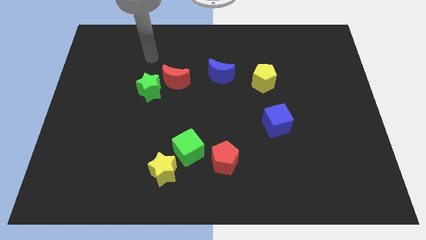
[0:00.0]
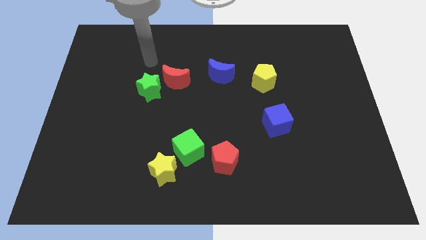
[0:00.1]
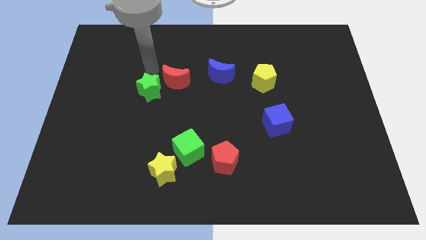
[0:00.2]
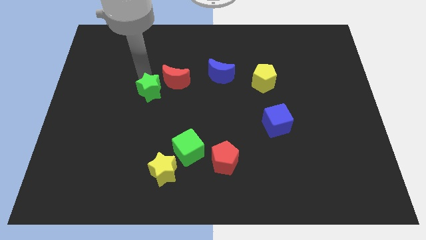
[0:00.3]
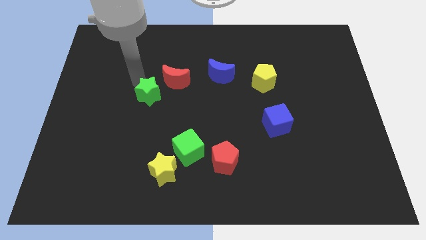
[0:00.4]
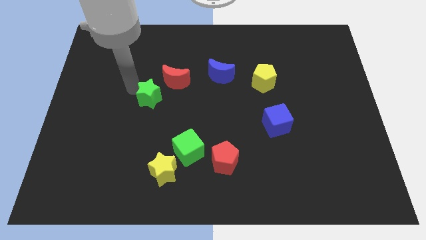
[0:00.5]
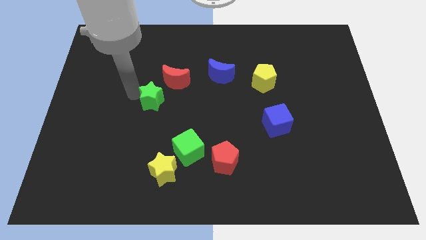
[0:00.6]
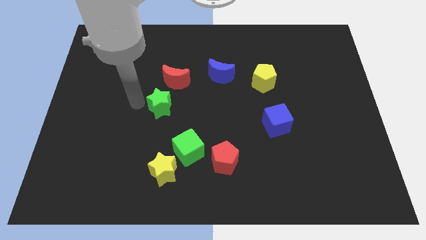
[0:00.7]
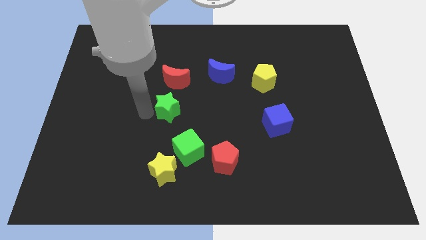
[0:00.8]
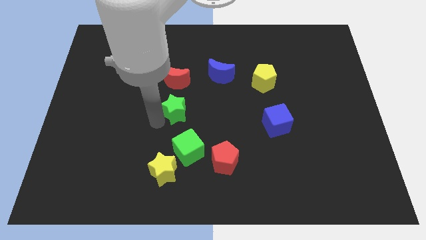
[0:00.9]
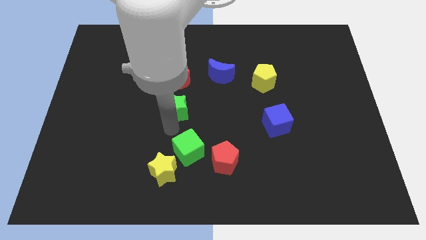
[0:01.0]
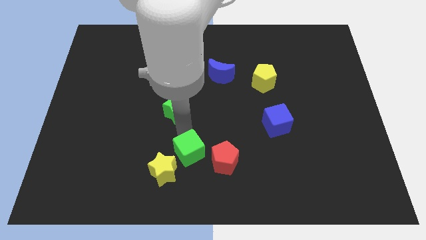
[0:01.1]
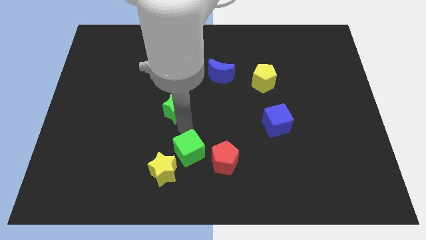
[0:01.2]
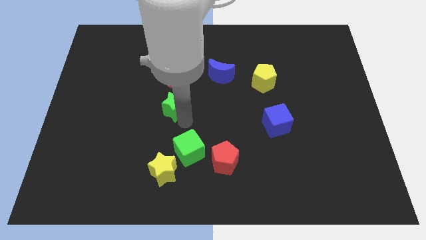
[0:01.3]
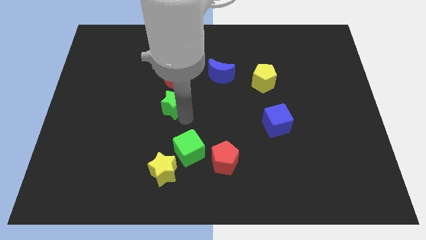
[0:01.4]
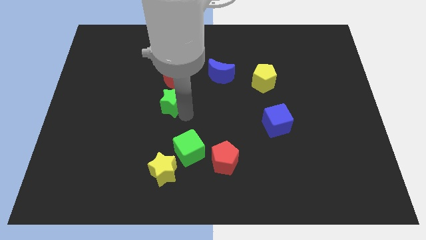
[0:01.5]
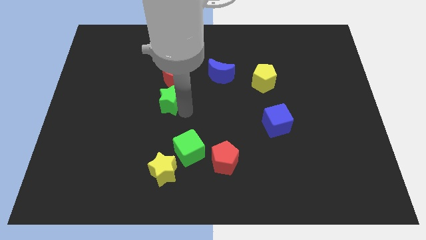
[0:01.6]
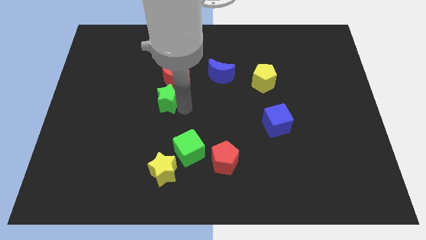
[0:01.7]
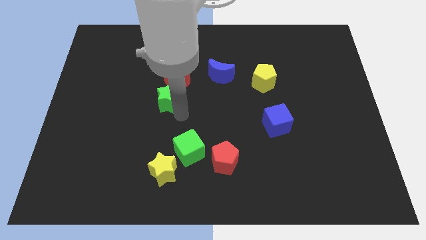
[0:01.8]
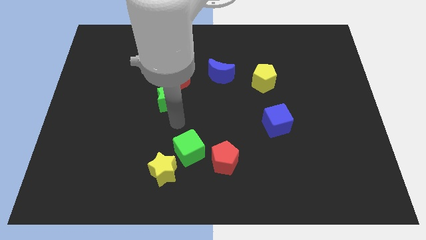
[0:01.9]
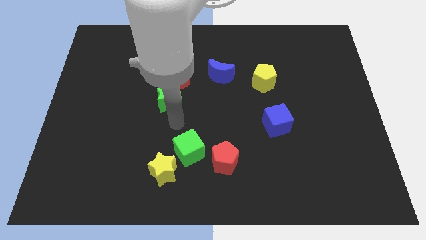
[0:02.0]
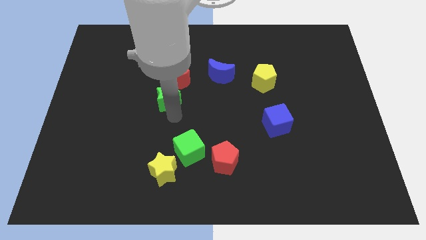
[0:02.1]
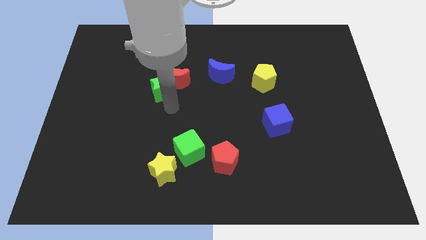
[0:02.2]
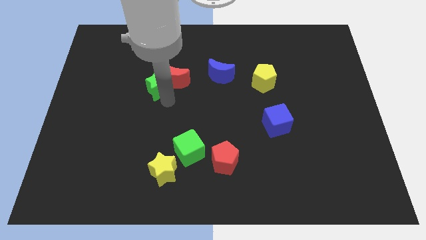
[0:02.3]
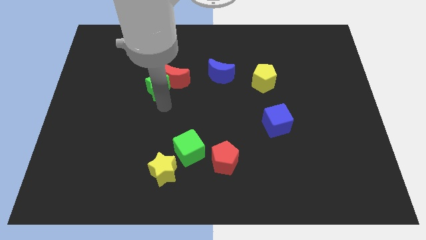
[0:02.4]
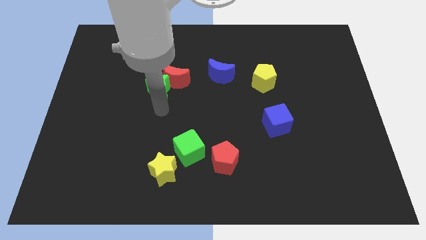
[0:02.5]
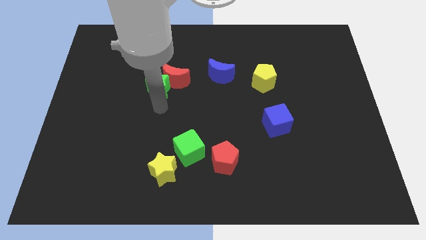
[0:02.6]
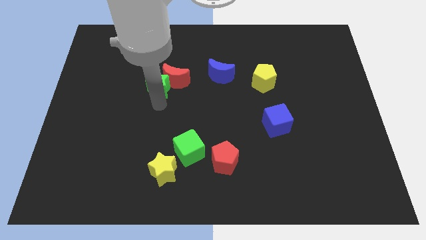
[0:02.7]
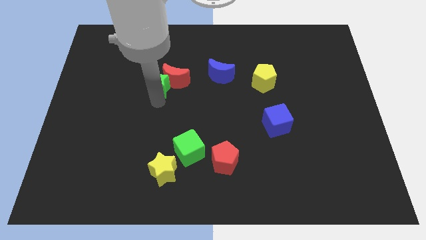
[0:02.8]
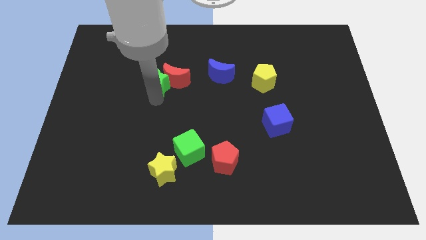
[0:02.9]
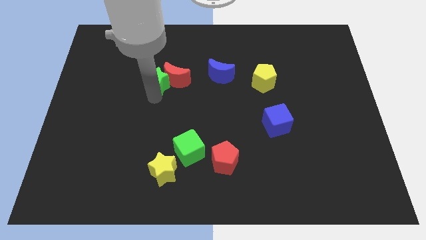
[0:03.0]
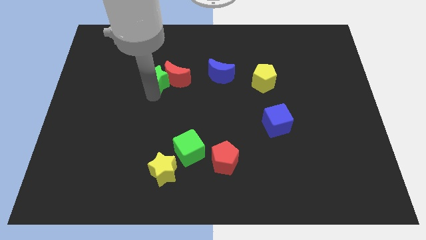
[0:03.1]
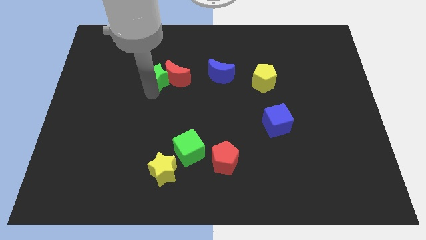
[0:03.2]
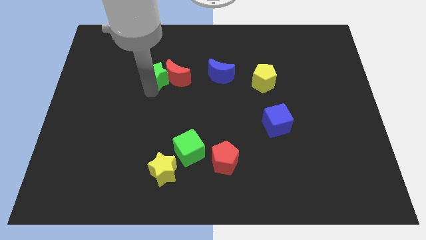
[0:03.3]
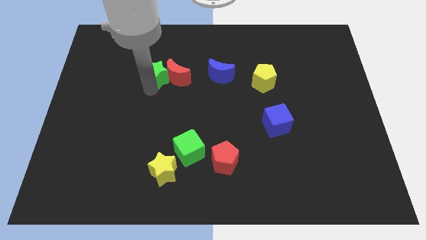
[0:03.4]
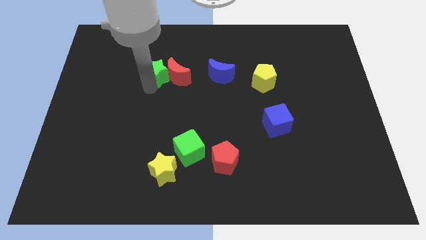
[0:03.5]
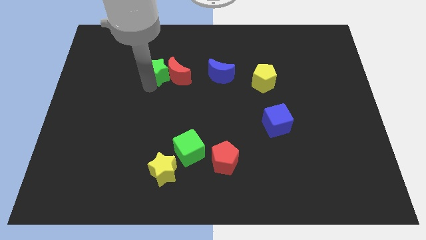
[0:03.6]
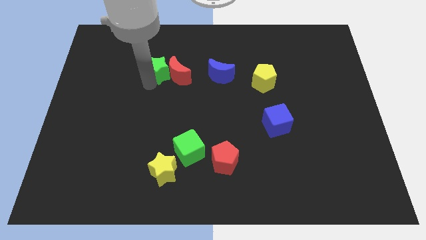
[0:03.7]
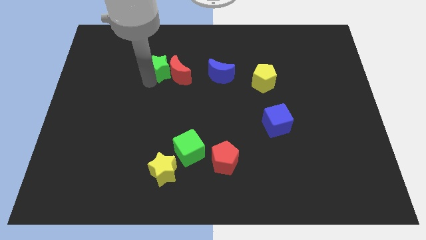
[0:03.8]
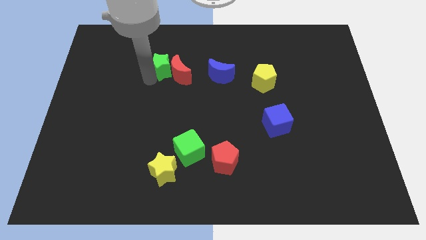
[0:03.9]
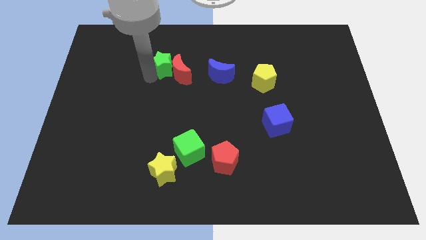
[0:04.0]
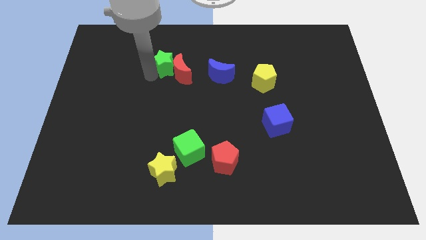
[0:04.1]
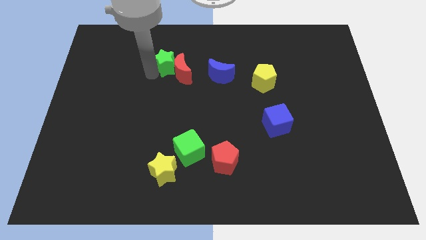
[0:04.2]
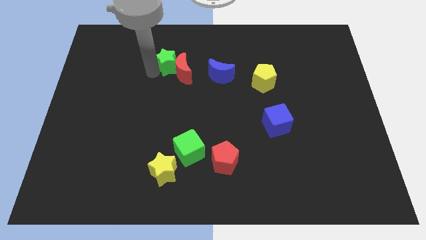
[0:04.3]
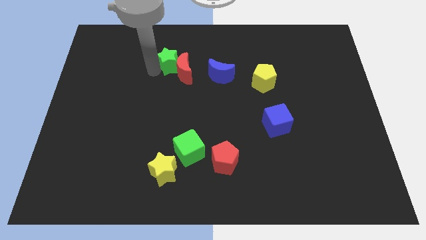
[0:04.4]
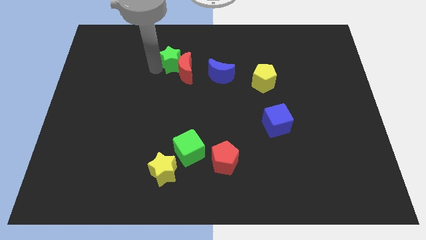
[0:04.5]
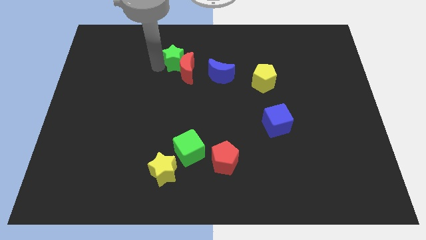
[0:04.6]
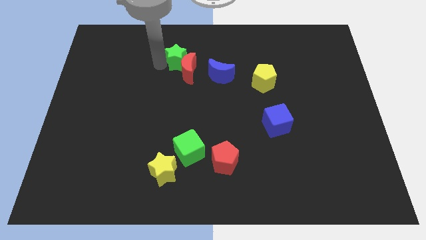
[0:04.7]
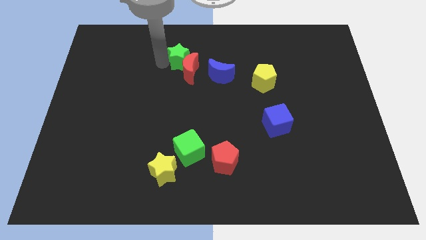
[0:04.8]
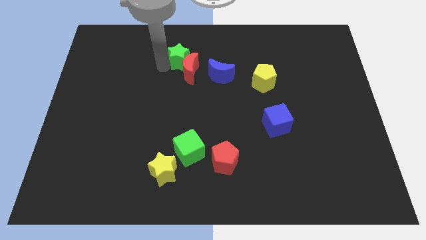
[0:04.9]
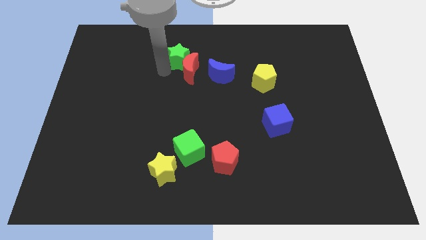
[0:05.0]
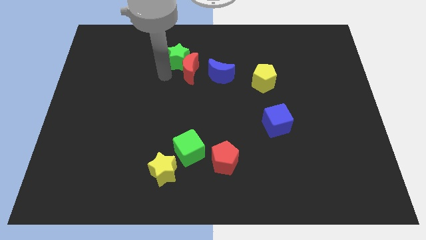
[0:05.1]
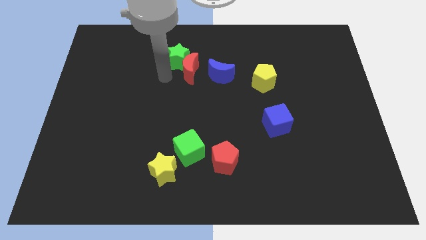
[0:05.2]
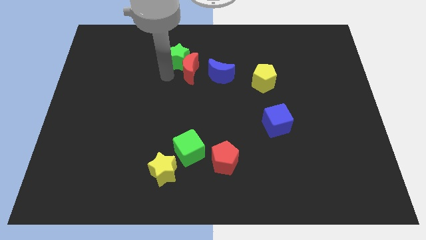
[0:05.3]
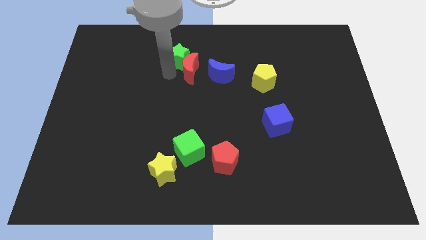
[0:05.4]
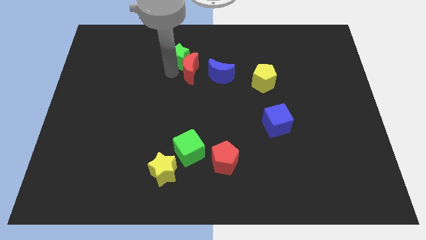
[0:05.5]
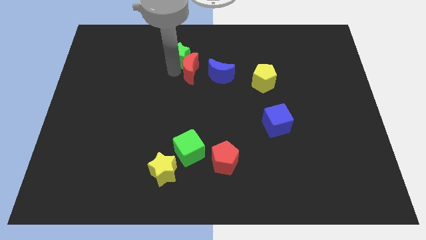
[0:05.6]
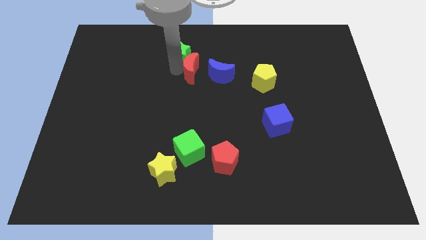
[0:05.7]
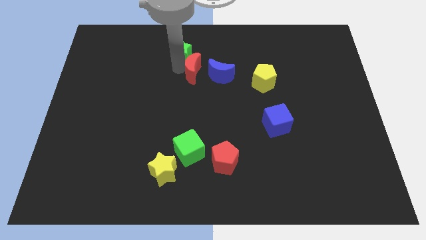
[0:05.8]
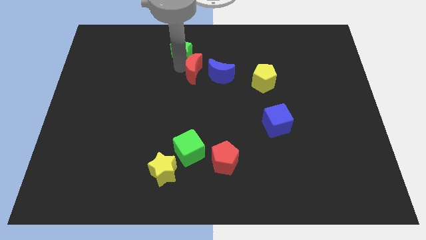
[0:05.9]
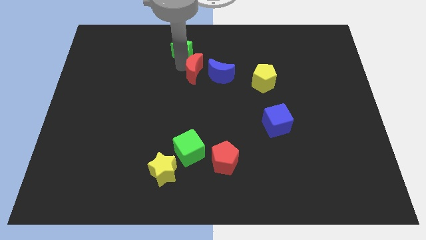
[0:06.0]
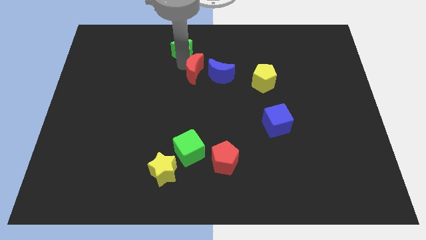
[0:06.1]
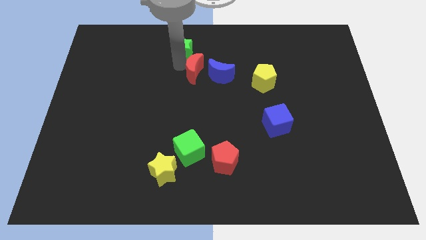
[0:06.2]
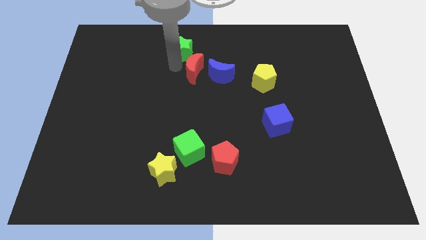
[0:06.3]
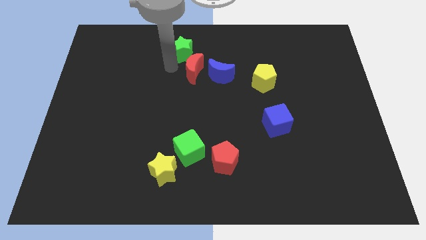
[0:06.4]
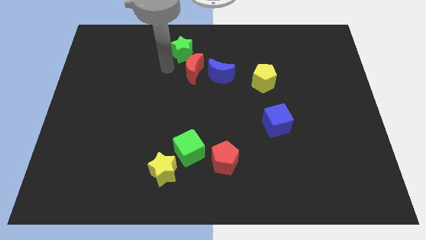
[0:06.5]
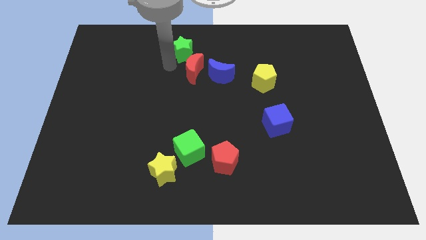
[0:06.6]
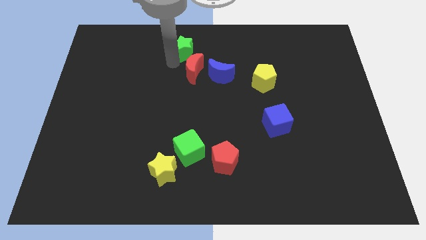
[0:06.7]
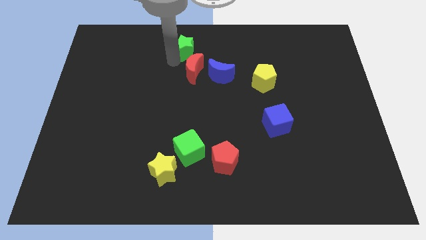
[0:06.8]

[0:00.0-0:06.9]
slide the green star to the top
